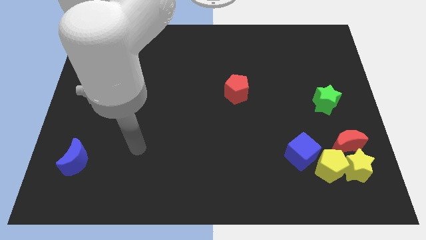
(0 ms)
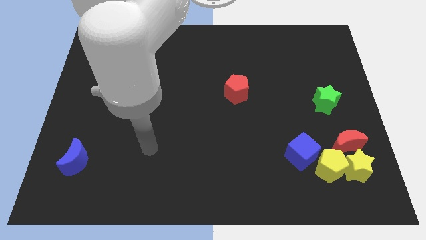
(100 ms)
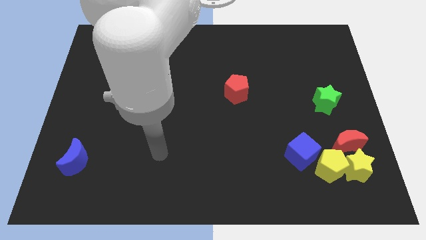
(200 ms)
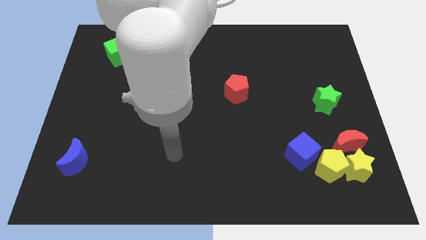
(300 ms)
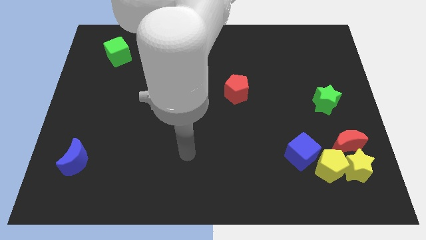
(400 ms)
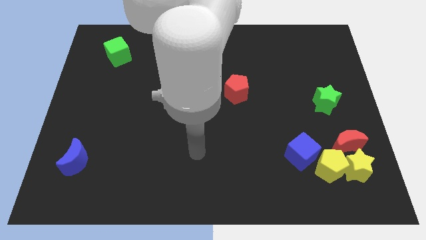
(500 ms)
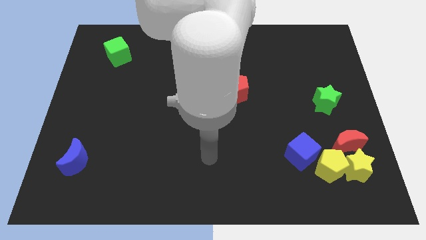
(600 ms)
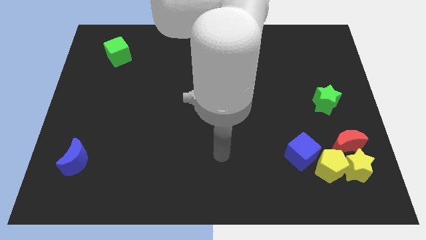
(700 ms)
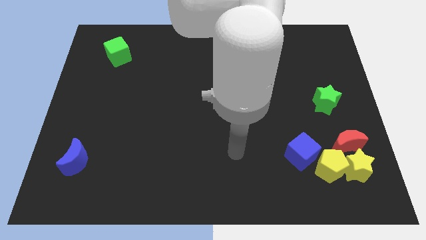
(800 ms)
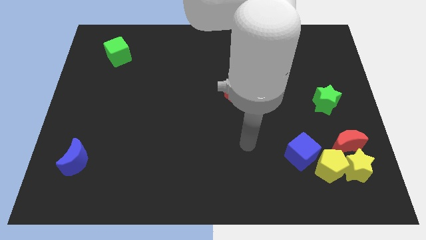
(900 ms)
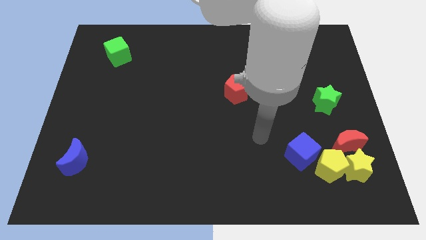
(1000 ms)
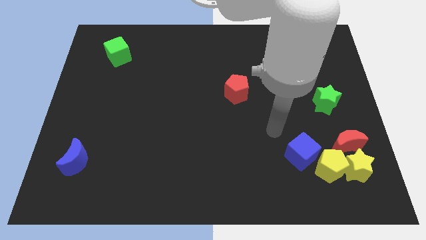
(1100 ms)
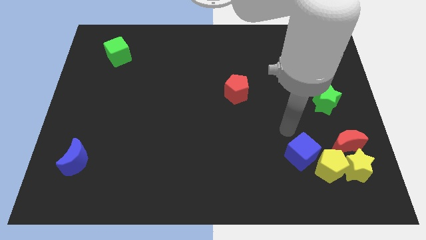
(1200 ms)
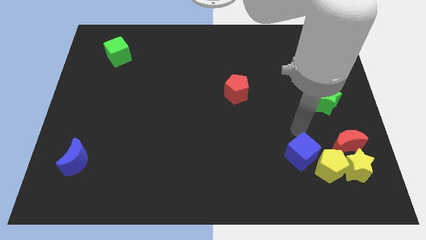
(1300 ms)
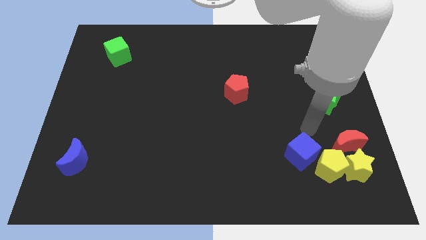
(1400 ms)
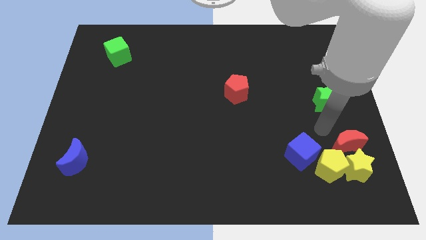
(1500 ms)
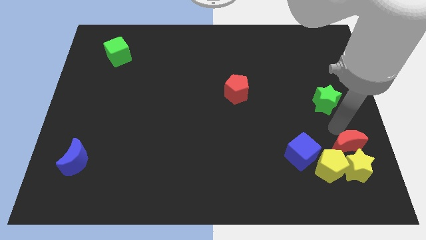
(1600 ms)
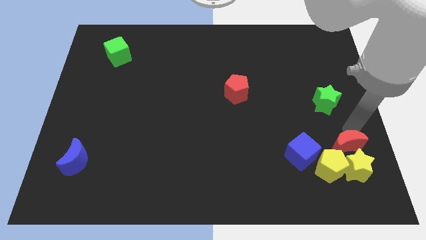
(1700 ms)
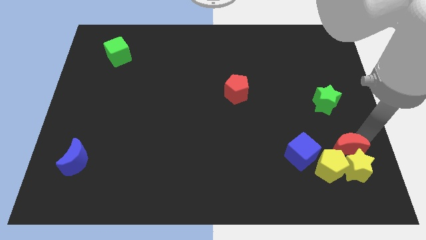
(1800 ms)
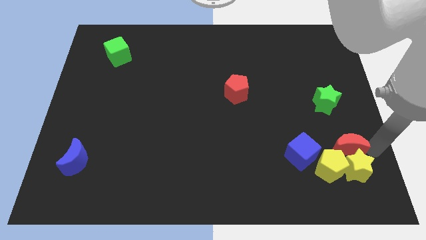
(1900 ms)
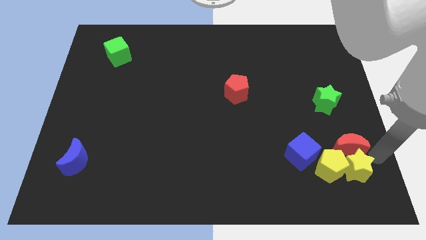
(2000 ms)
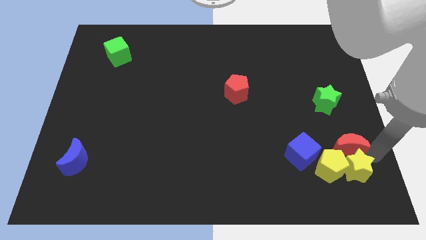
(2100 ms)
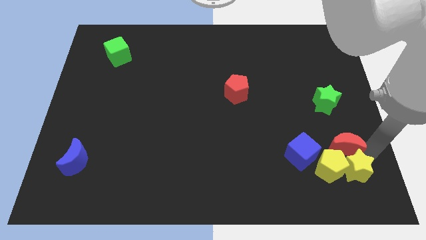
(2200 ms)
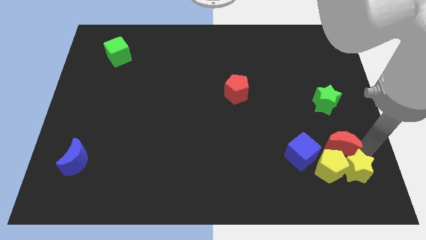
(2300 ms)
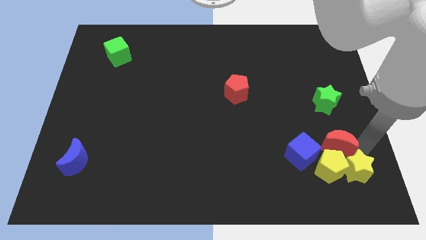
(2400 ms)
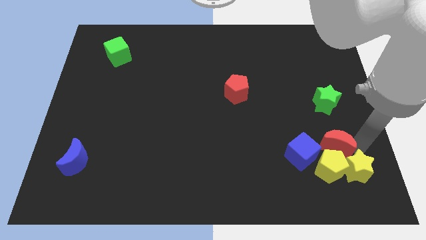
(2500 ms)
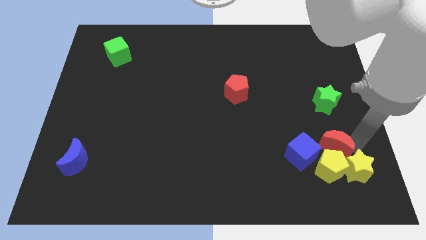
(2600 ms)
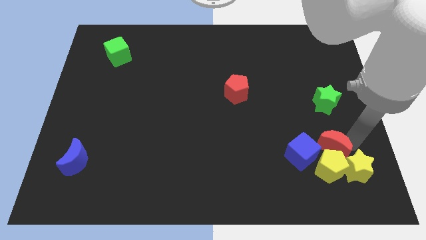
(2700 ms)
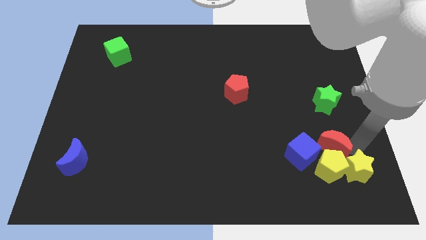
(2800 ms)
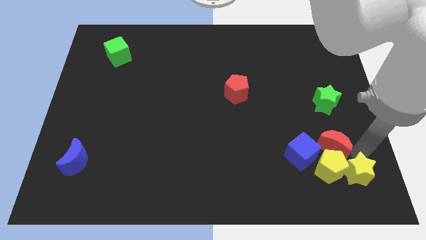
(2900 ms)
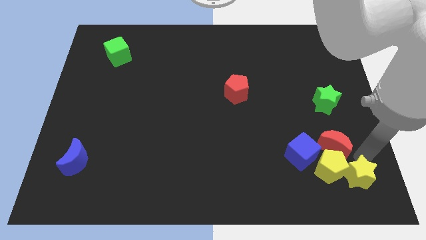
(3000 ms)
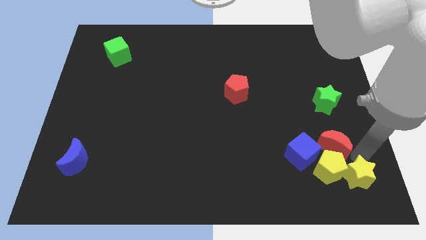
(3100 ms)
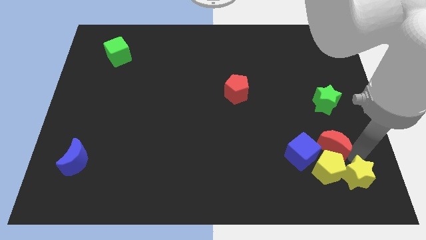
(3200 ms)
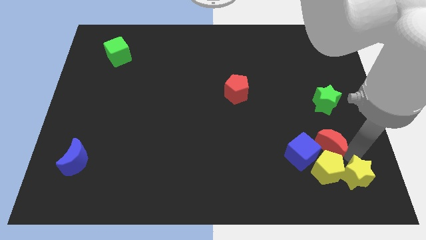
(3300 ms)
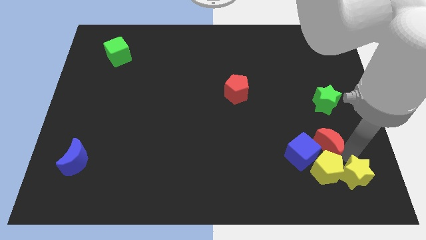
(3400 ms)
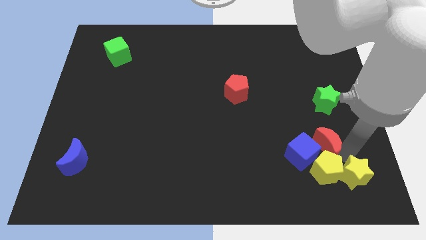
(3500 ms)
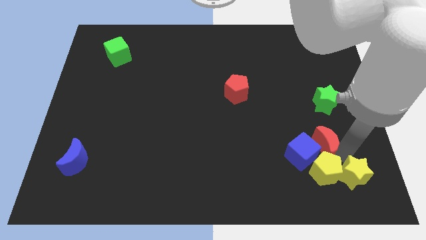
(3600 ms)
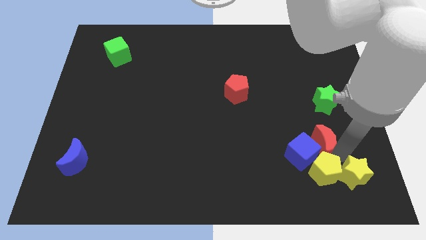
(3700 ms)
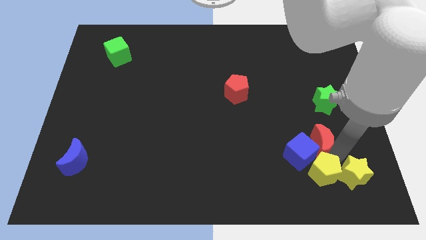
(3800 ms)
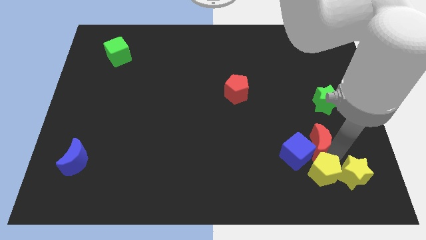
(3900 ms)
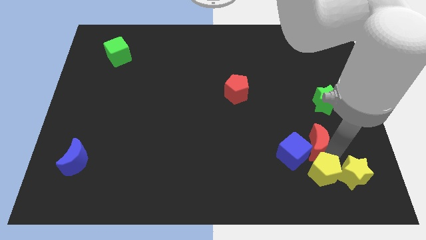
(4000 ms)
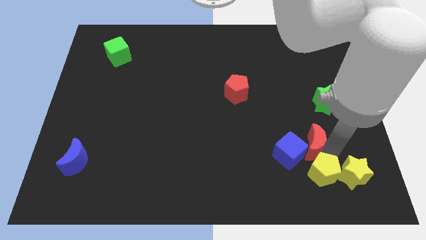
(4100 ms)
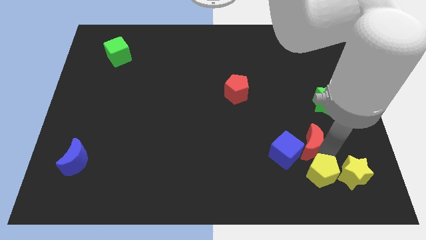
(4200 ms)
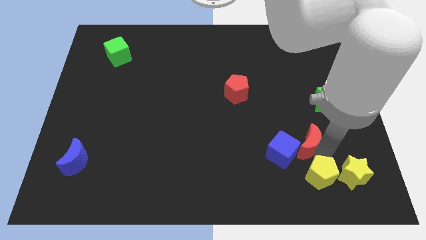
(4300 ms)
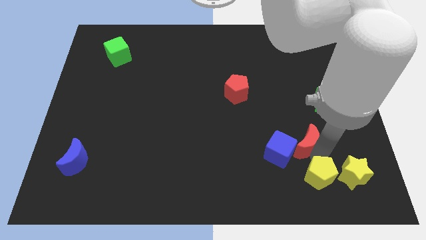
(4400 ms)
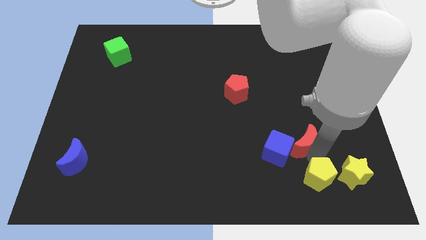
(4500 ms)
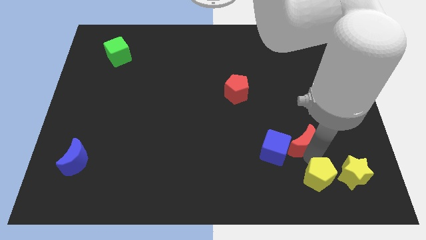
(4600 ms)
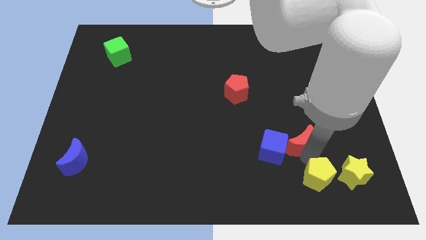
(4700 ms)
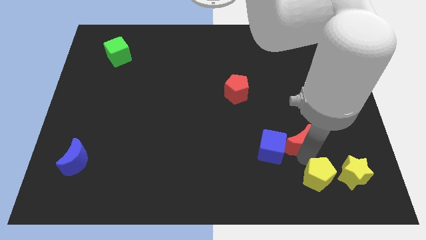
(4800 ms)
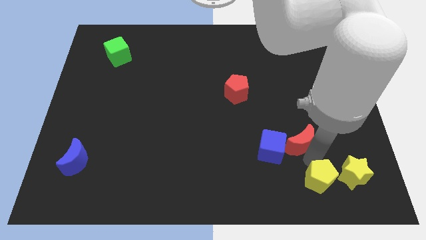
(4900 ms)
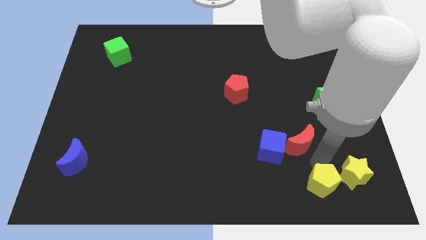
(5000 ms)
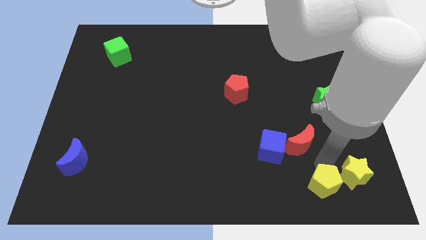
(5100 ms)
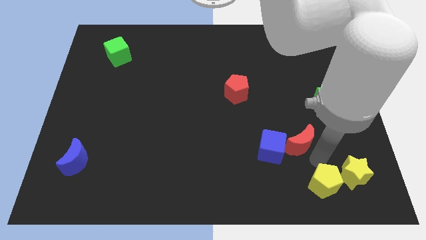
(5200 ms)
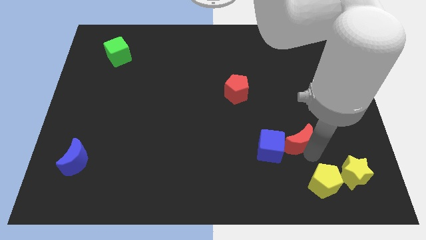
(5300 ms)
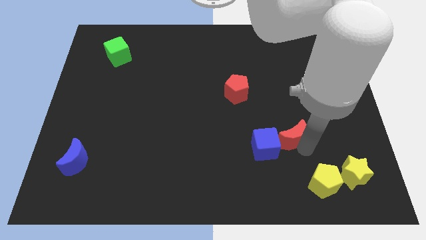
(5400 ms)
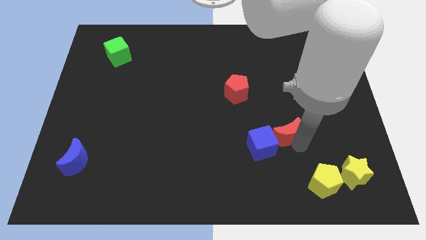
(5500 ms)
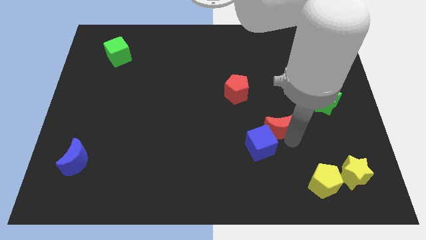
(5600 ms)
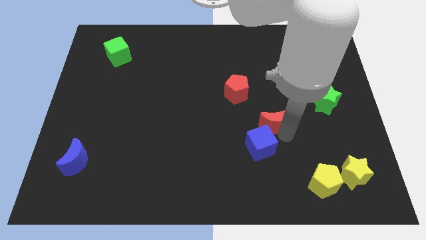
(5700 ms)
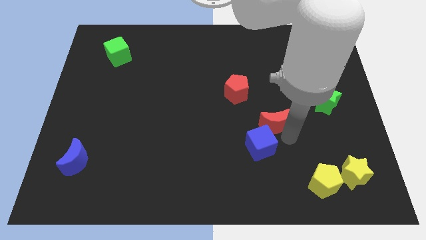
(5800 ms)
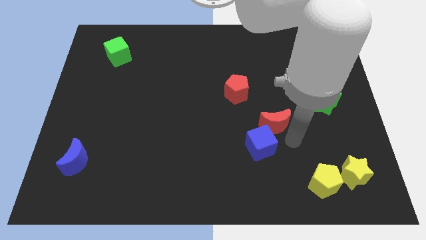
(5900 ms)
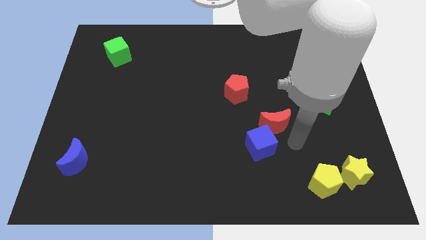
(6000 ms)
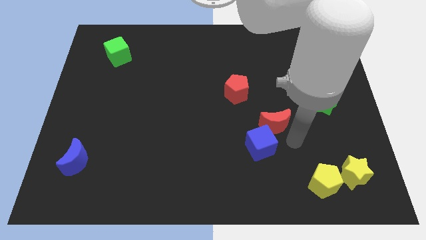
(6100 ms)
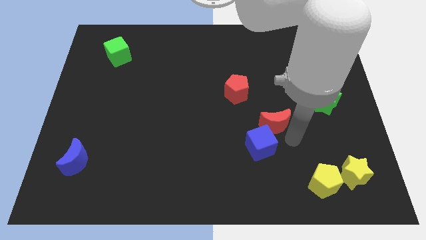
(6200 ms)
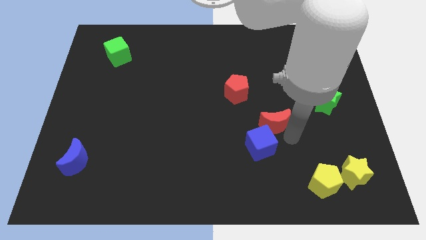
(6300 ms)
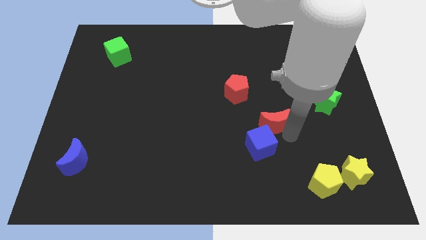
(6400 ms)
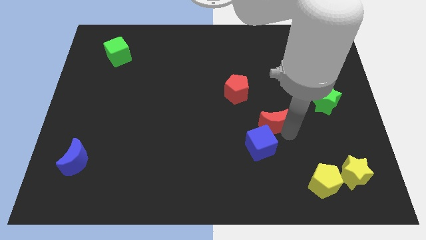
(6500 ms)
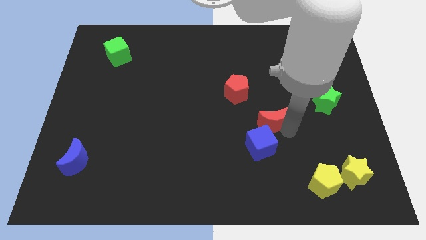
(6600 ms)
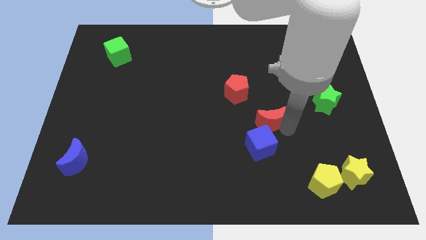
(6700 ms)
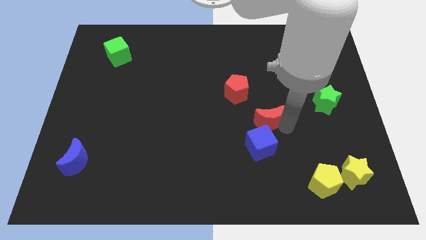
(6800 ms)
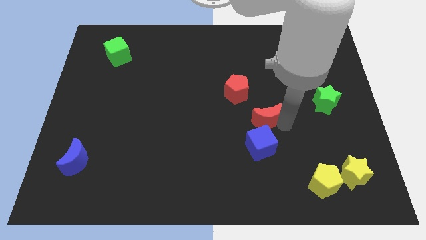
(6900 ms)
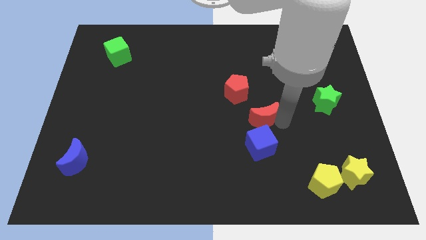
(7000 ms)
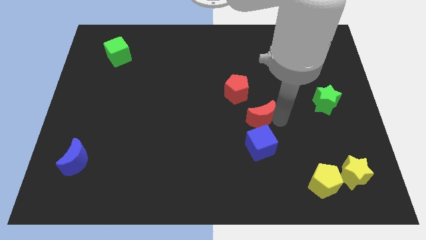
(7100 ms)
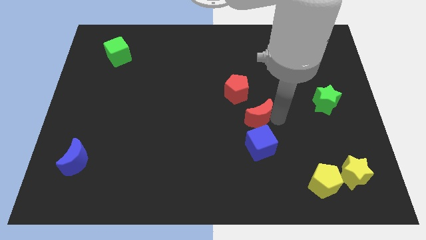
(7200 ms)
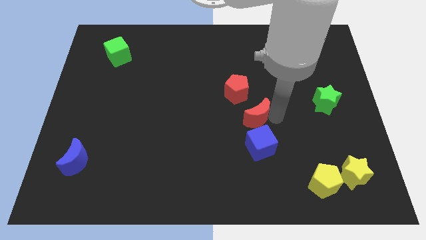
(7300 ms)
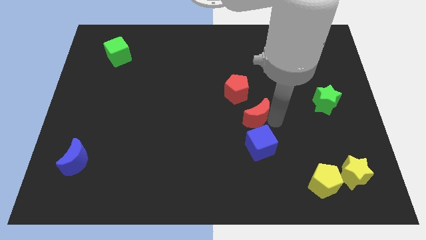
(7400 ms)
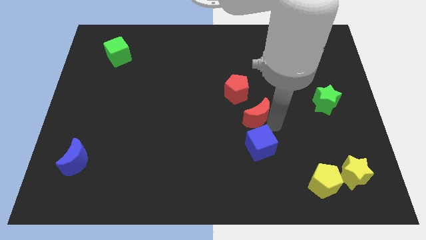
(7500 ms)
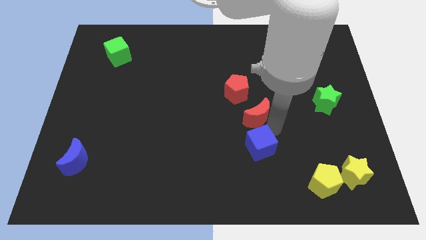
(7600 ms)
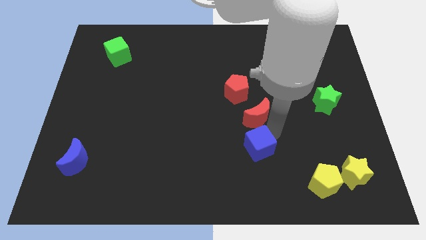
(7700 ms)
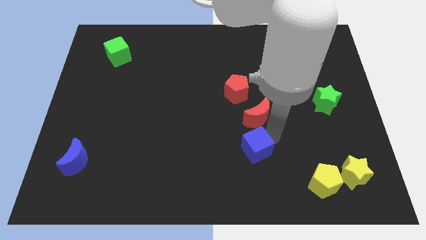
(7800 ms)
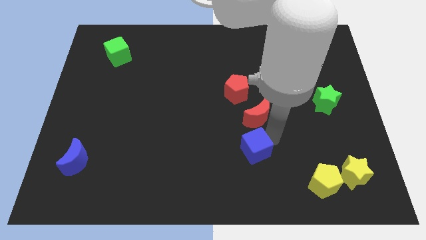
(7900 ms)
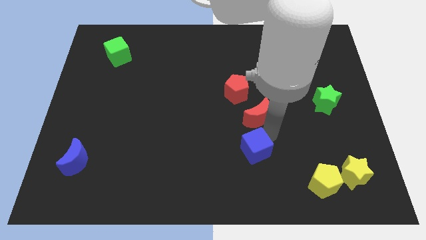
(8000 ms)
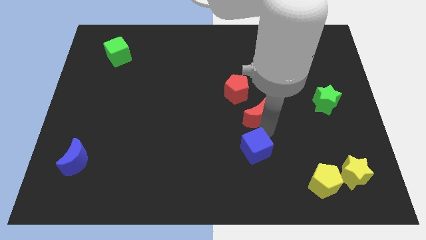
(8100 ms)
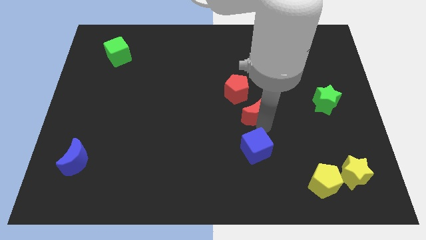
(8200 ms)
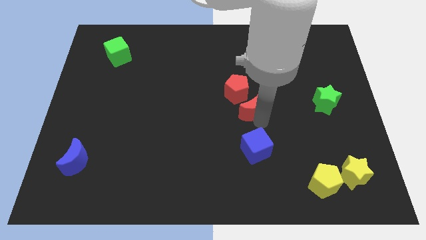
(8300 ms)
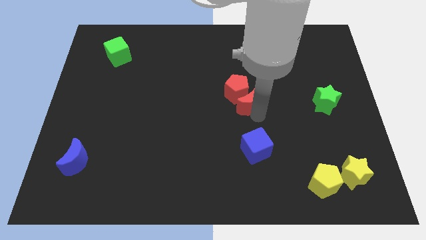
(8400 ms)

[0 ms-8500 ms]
put the red moon next to the red pentagon
